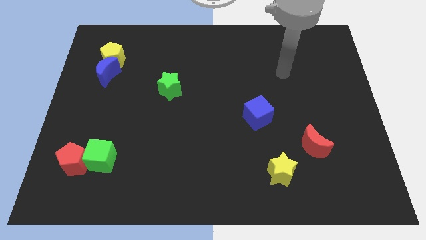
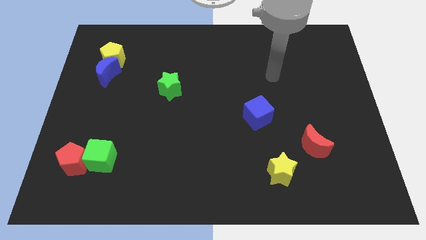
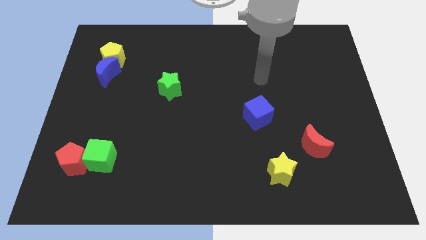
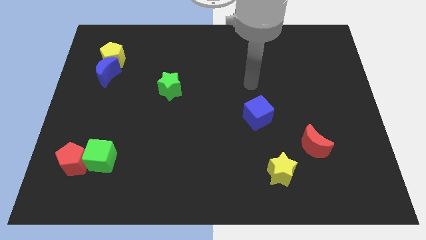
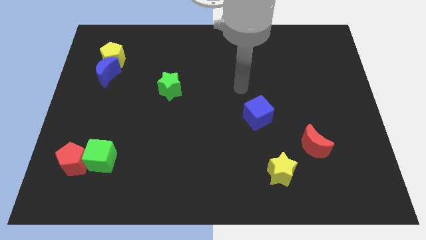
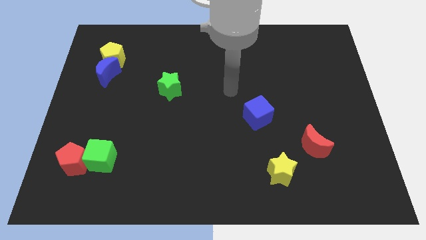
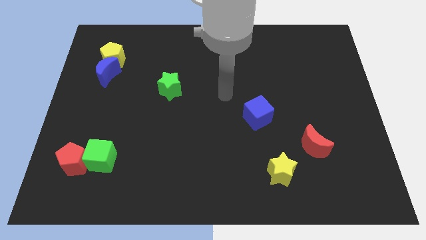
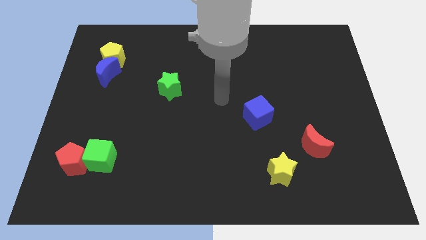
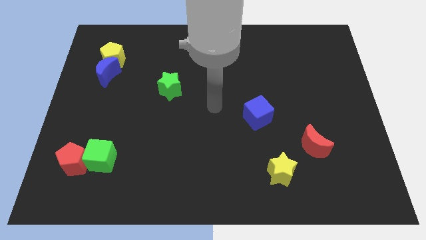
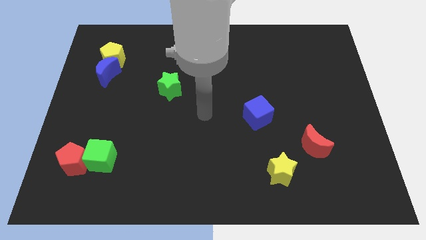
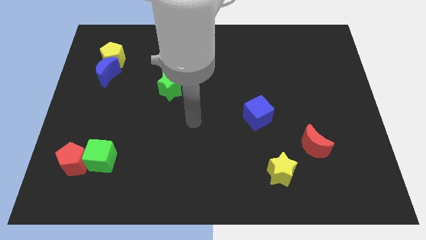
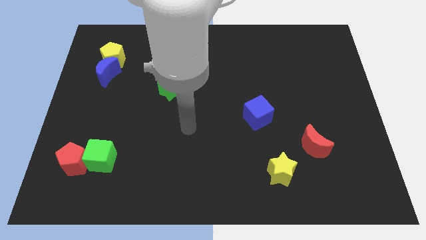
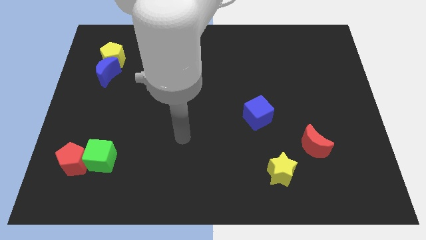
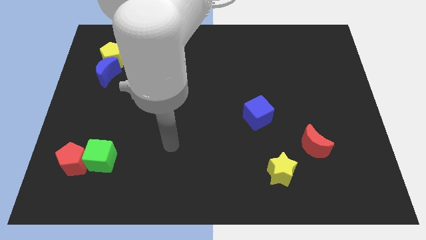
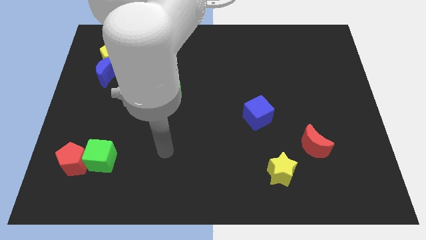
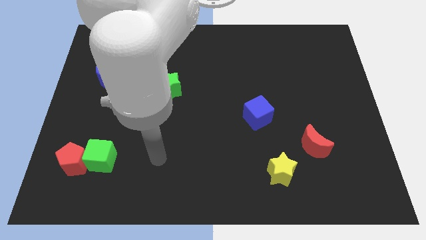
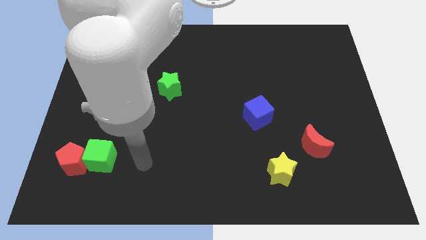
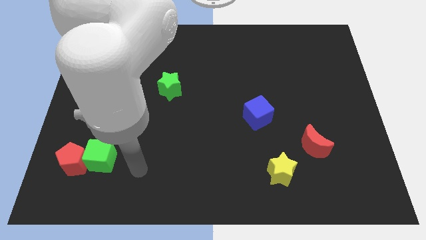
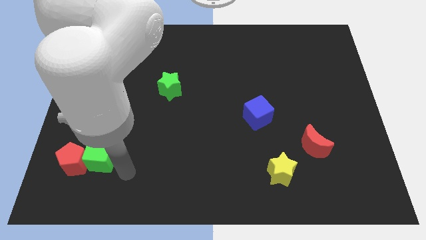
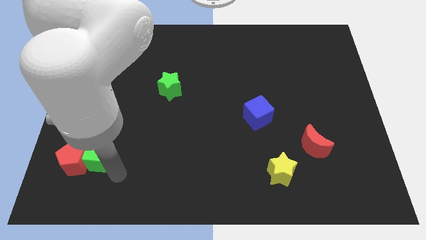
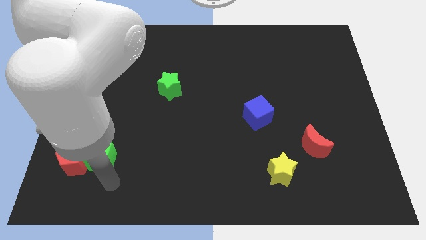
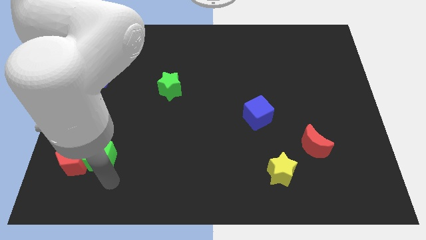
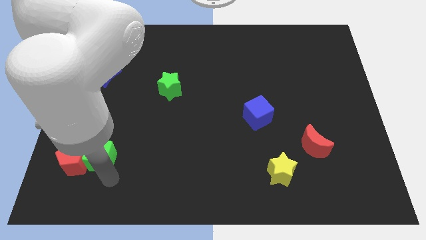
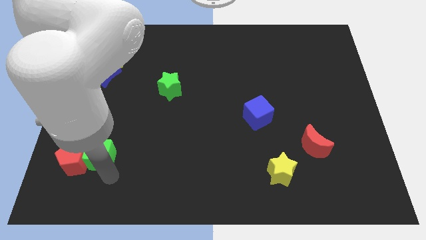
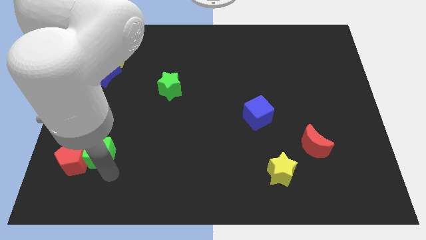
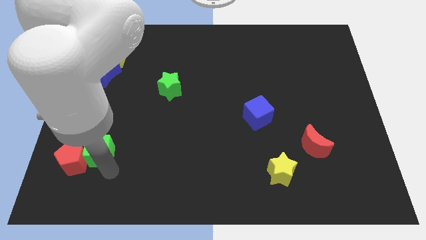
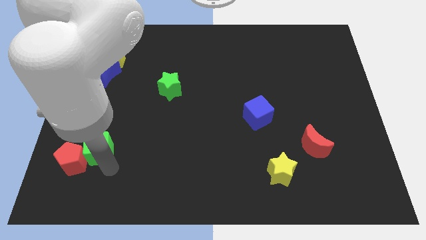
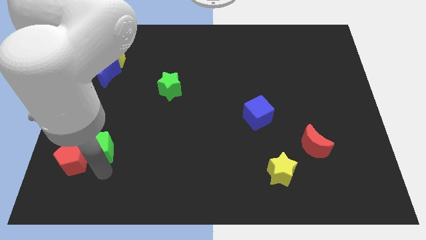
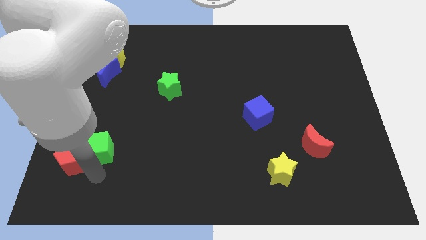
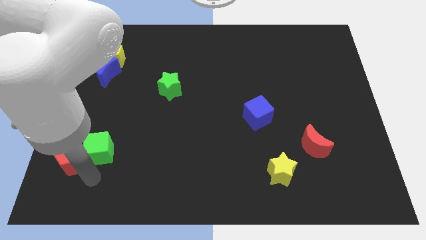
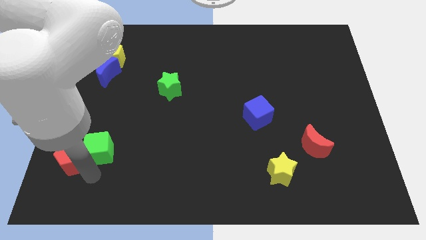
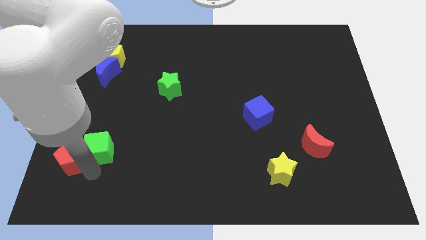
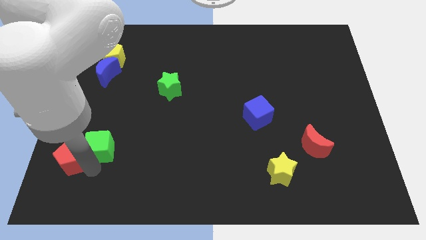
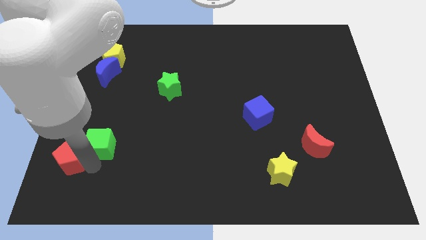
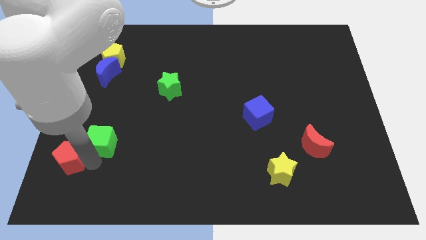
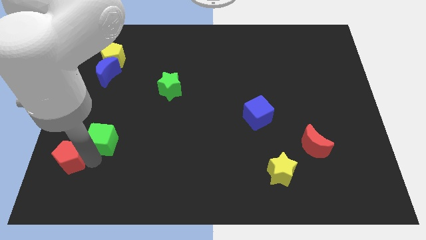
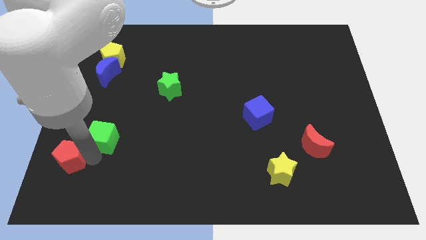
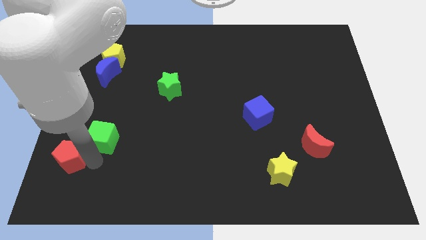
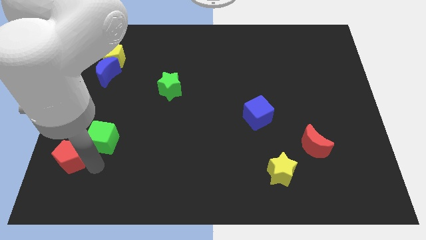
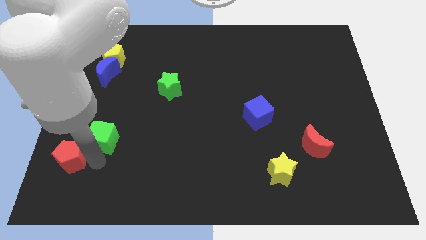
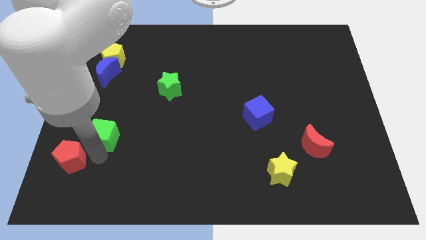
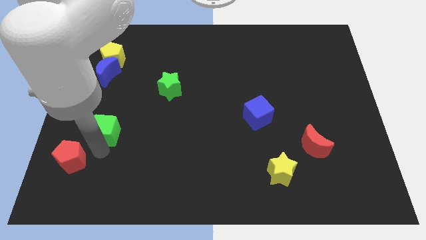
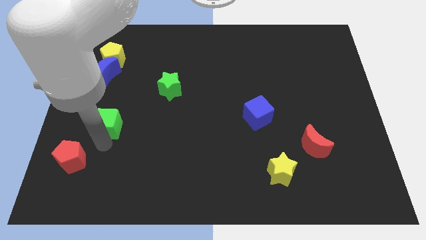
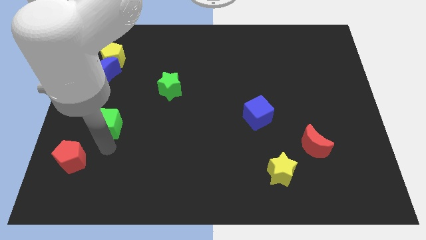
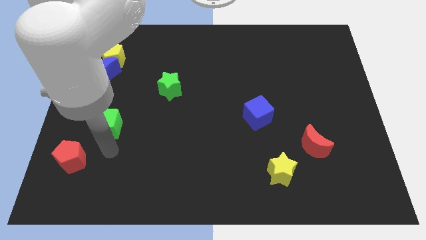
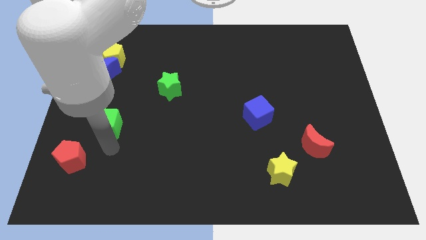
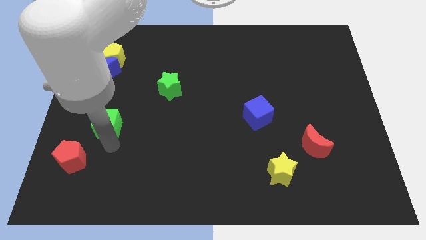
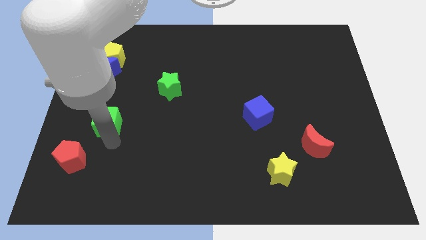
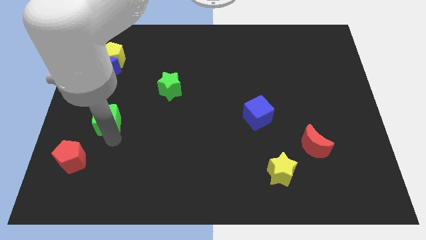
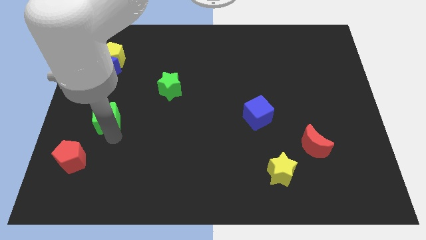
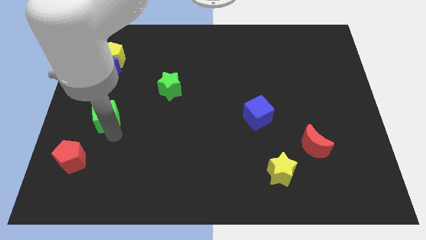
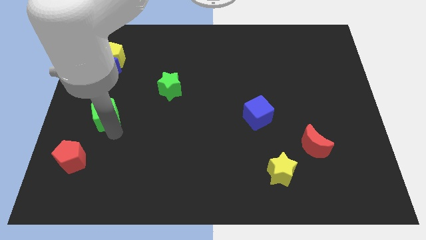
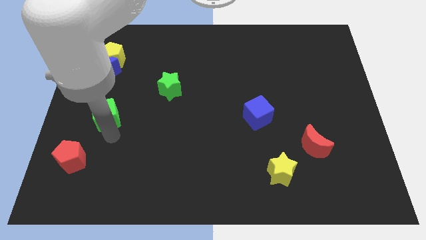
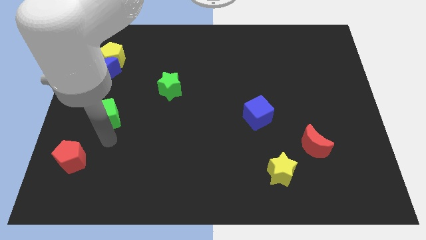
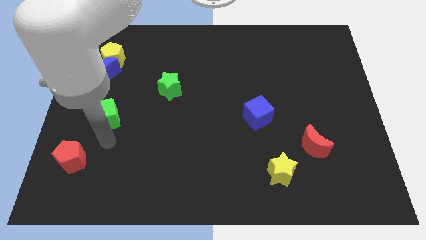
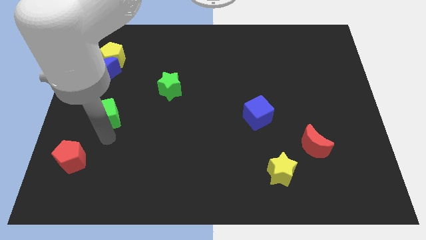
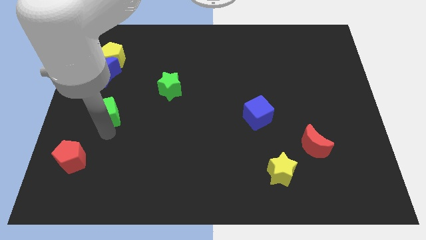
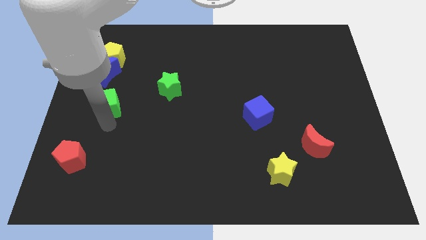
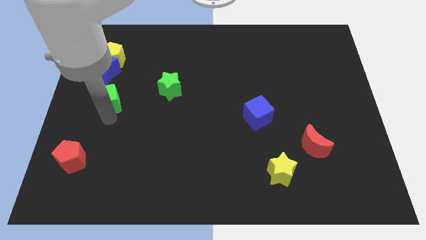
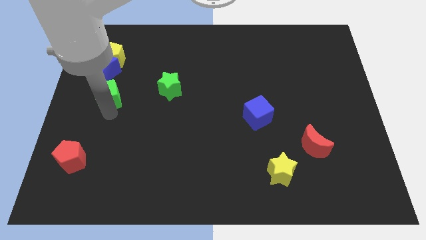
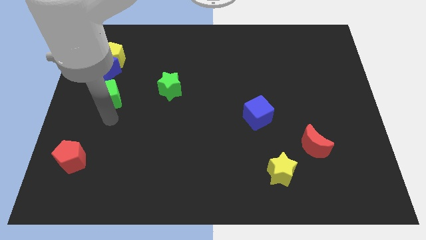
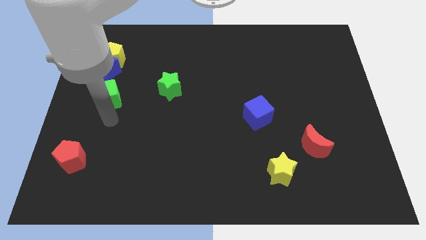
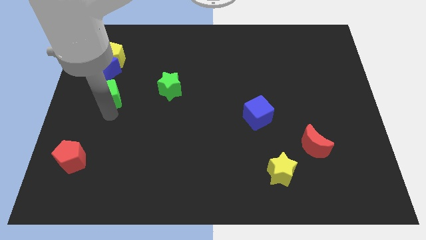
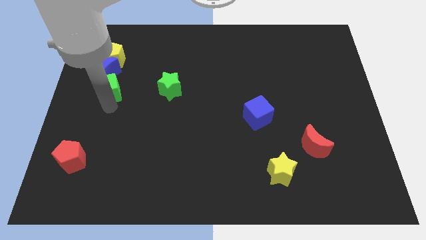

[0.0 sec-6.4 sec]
slide the green cube towards the blue moon

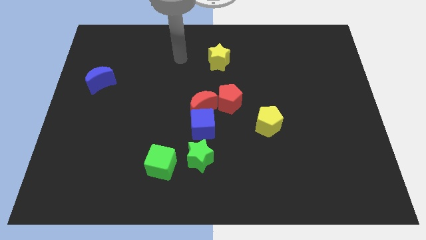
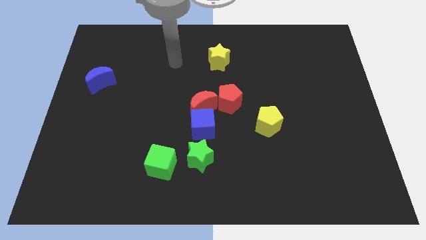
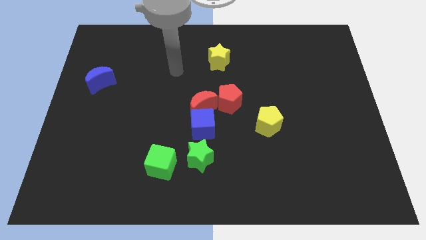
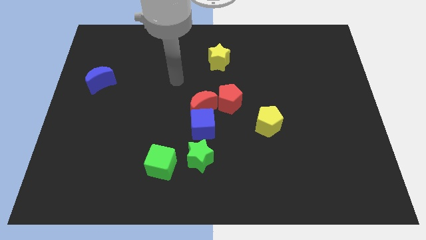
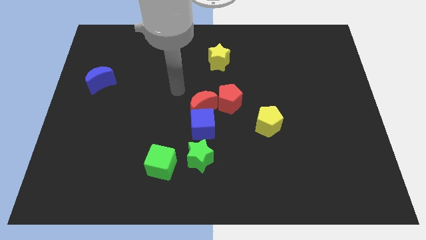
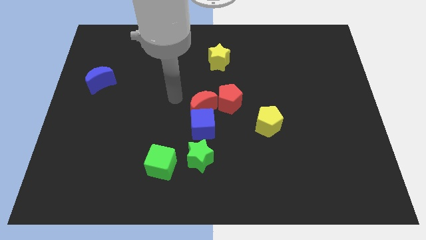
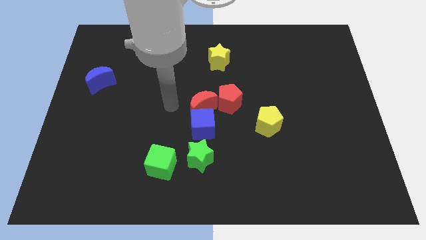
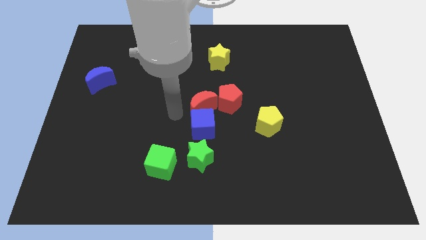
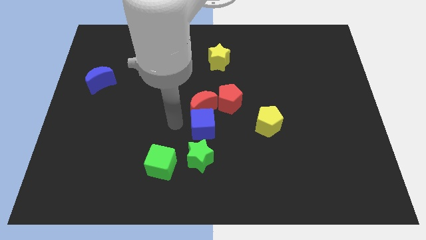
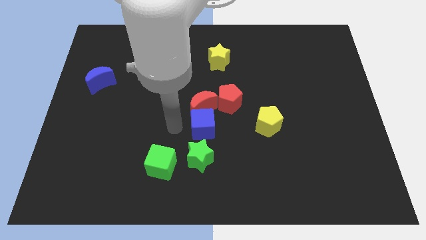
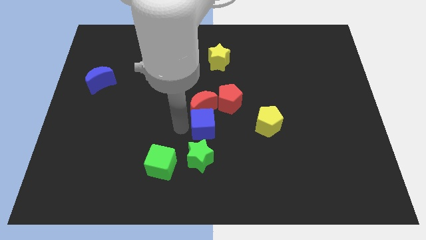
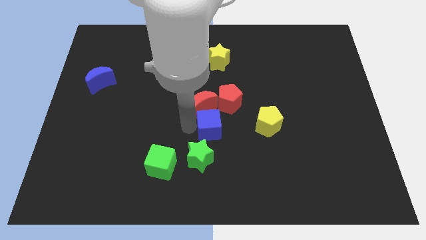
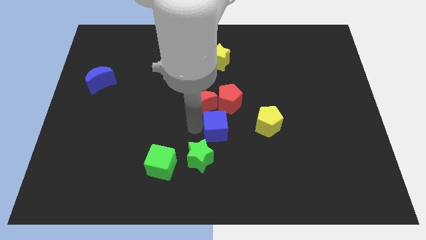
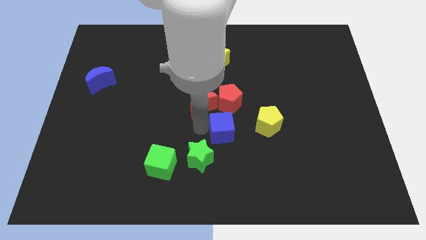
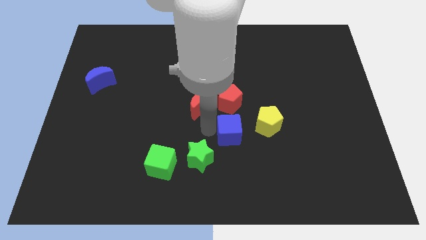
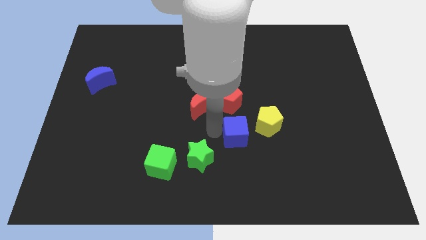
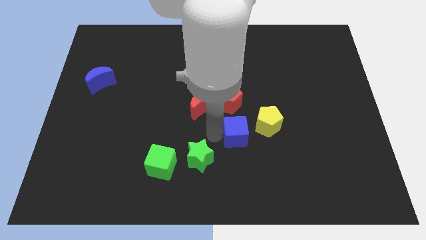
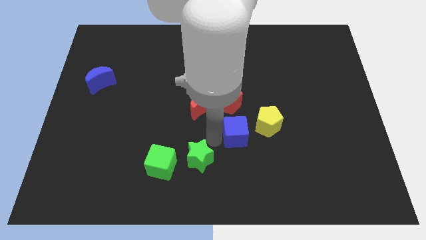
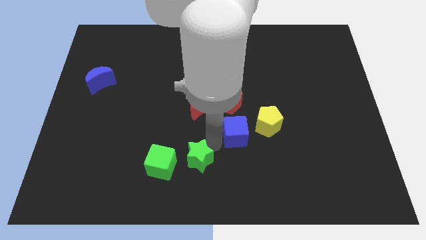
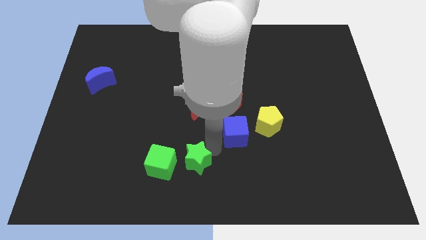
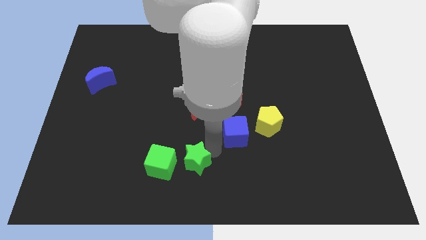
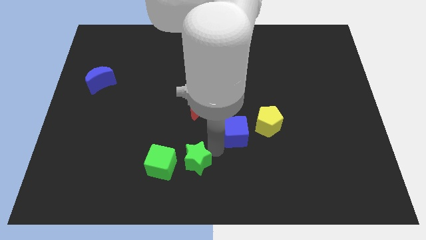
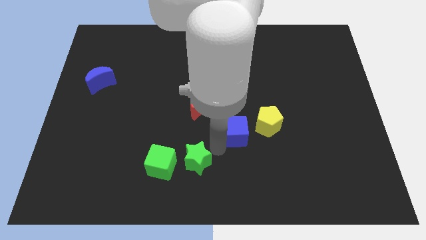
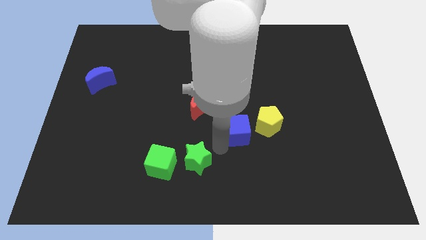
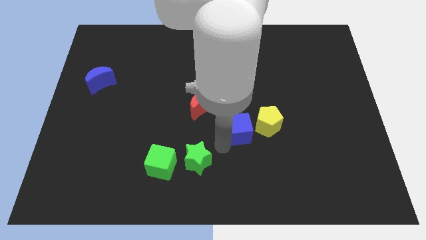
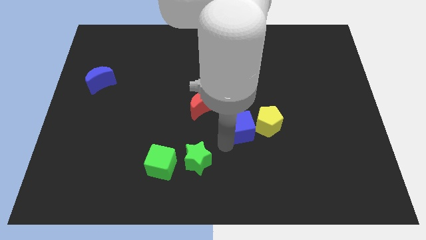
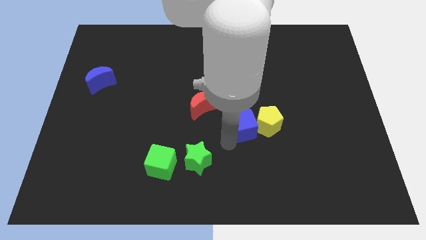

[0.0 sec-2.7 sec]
slide the blue cube towards the yellow pentagon
